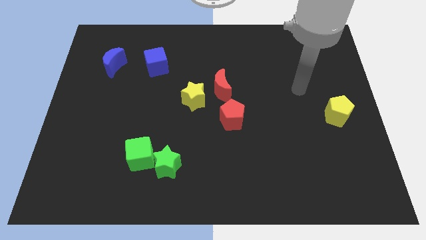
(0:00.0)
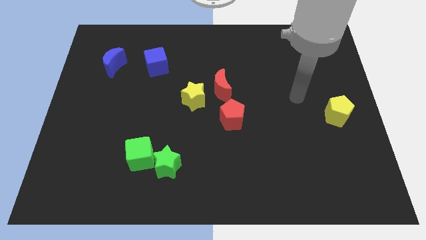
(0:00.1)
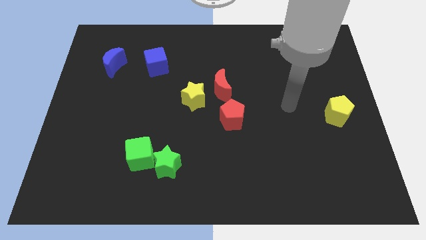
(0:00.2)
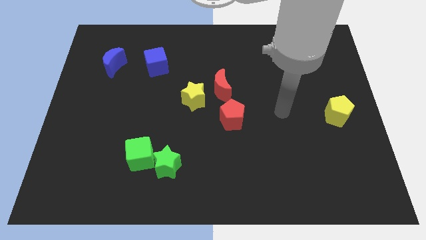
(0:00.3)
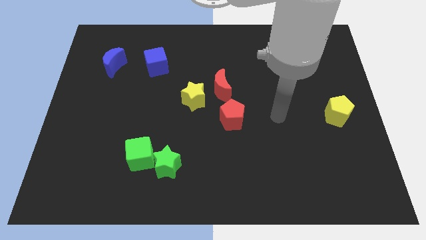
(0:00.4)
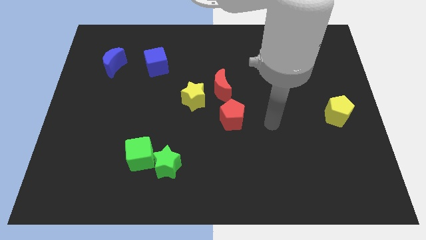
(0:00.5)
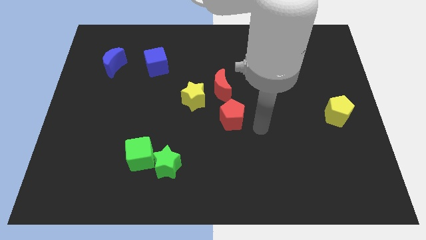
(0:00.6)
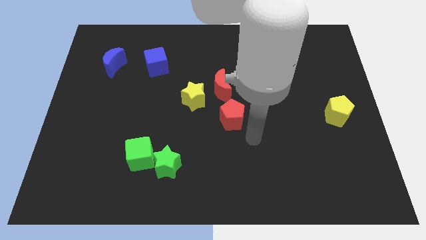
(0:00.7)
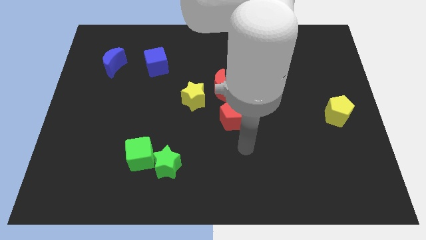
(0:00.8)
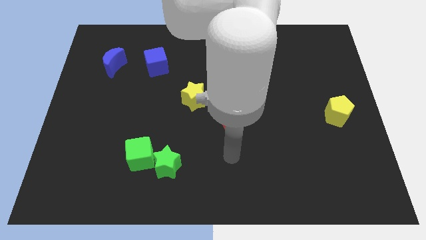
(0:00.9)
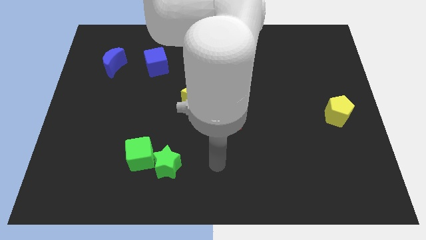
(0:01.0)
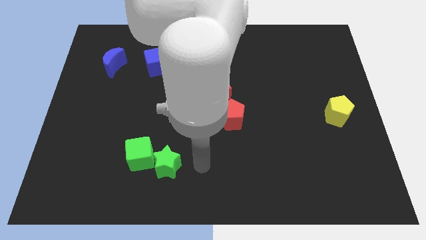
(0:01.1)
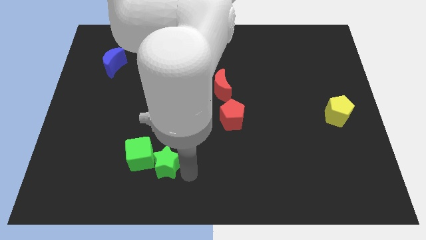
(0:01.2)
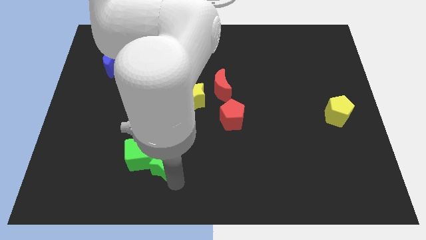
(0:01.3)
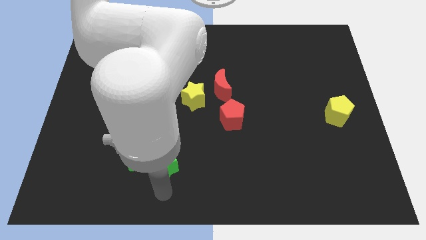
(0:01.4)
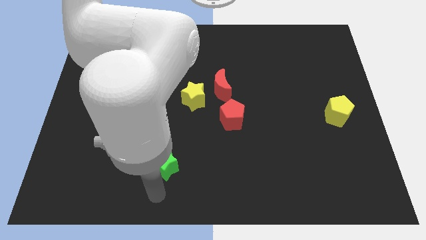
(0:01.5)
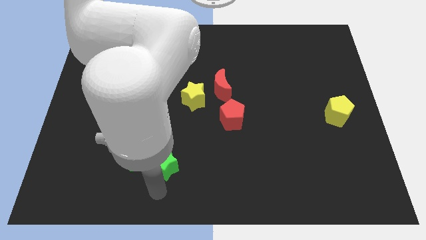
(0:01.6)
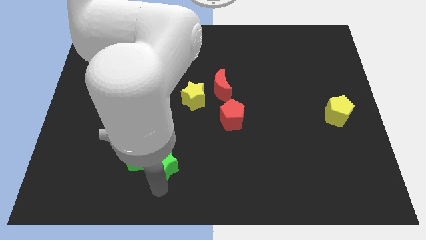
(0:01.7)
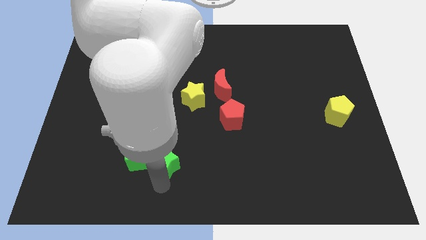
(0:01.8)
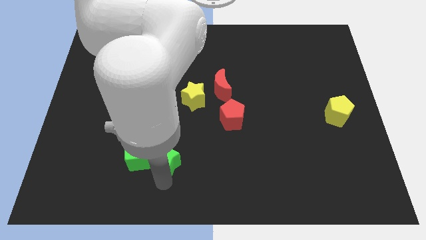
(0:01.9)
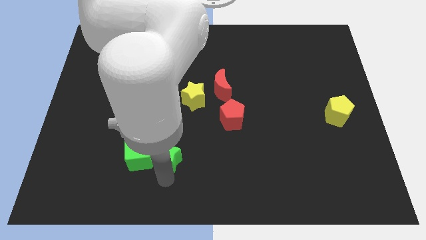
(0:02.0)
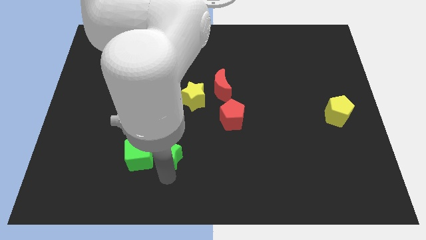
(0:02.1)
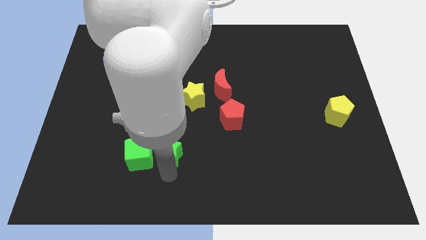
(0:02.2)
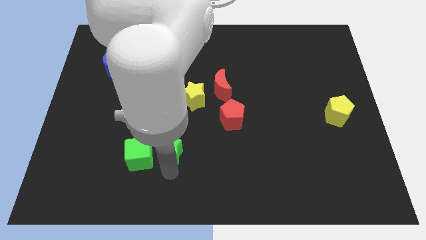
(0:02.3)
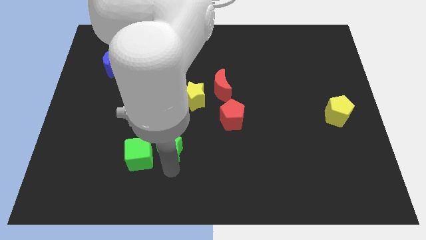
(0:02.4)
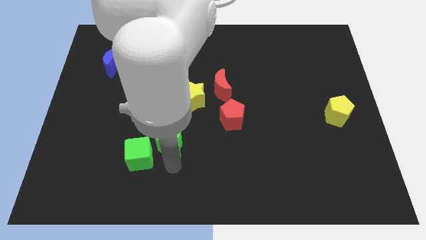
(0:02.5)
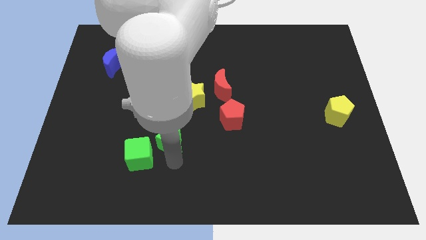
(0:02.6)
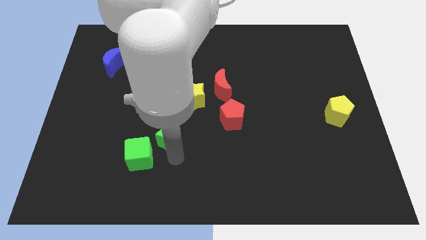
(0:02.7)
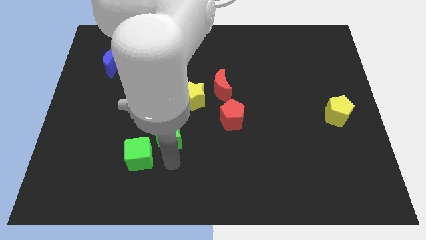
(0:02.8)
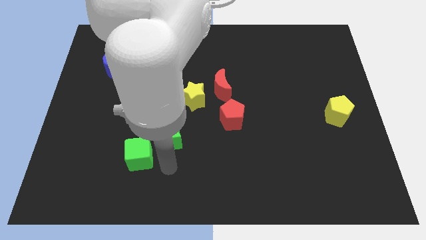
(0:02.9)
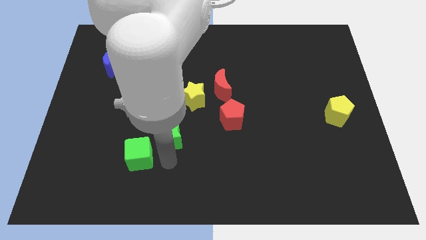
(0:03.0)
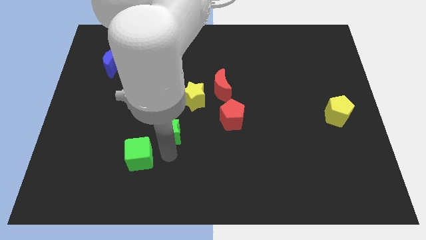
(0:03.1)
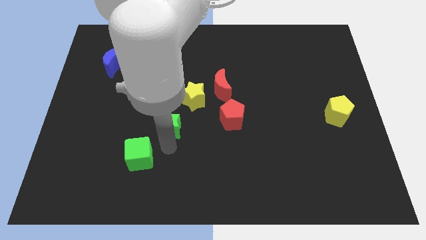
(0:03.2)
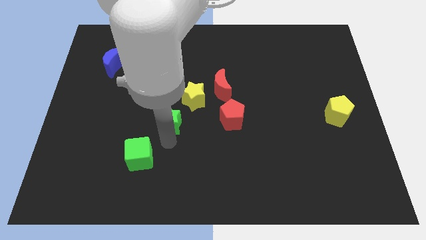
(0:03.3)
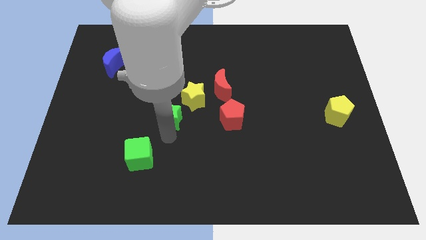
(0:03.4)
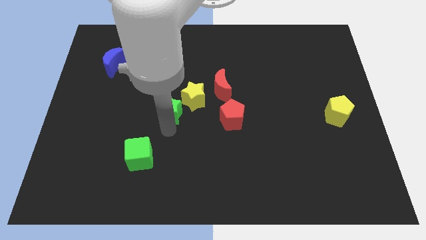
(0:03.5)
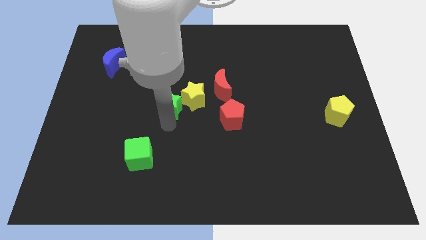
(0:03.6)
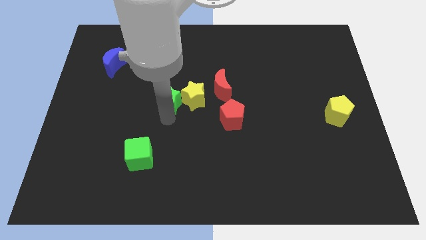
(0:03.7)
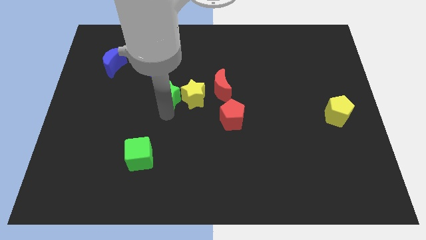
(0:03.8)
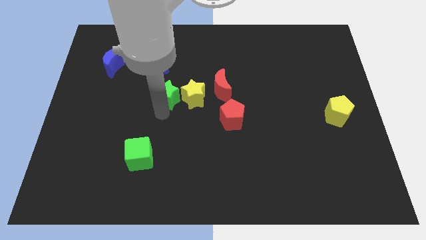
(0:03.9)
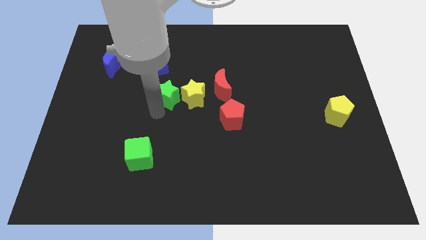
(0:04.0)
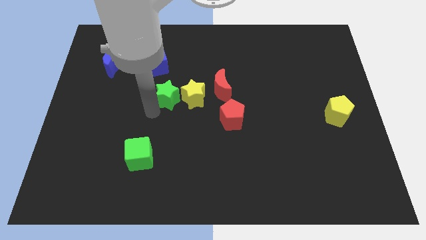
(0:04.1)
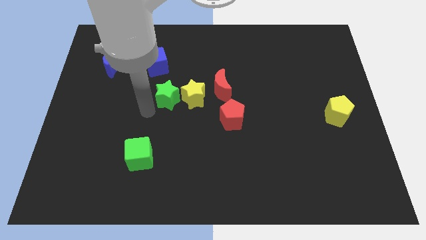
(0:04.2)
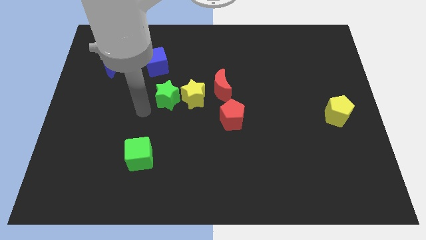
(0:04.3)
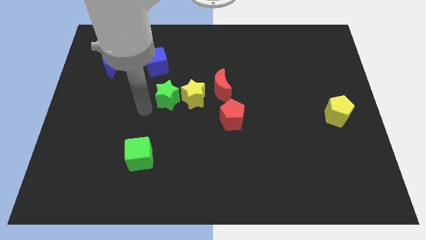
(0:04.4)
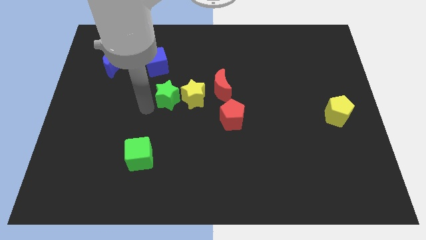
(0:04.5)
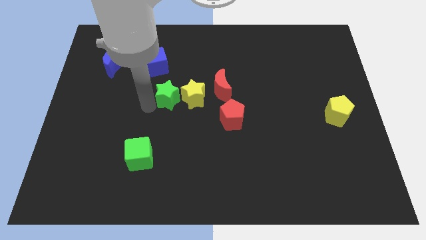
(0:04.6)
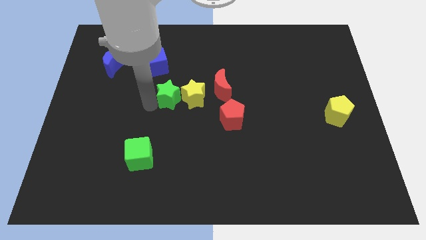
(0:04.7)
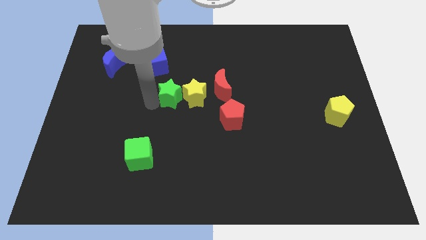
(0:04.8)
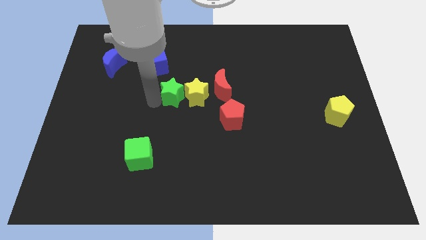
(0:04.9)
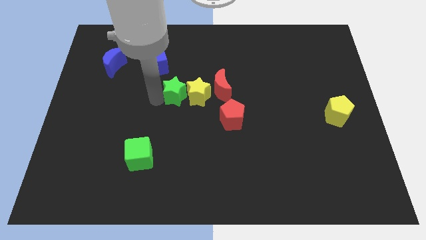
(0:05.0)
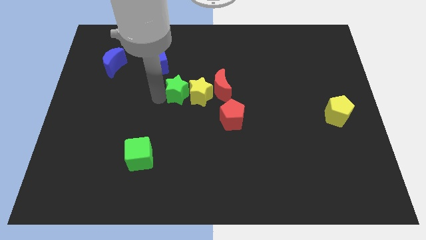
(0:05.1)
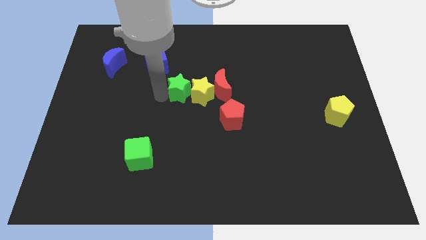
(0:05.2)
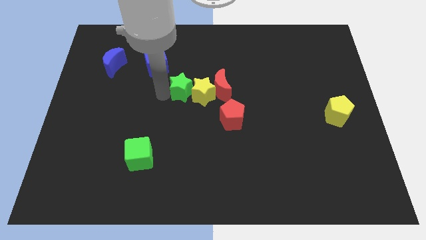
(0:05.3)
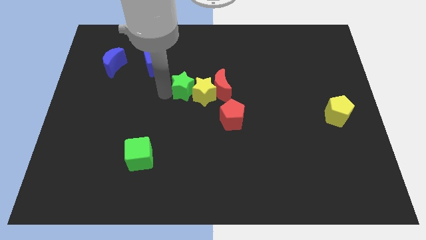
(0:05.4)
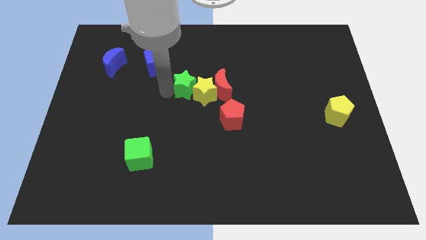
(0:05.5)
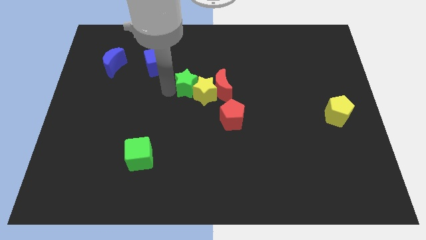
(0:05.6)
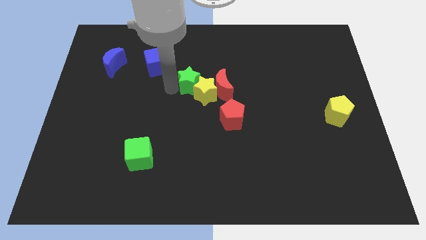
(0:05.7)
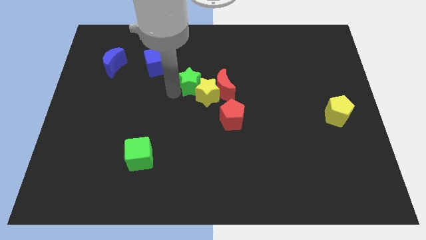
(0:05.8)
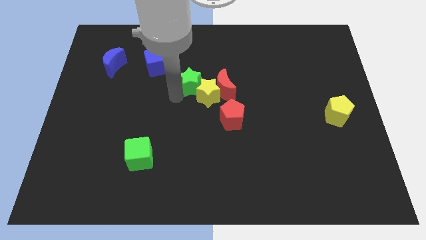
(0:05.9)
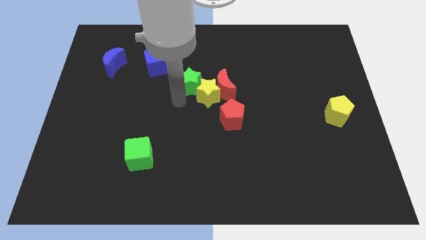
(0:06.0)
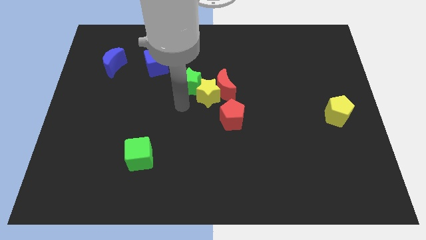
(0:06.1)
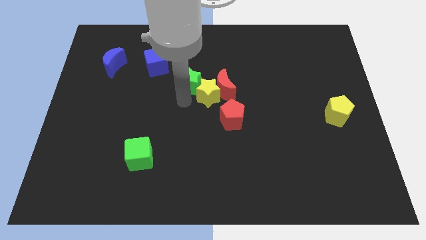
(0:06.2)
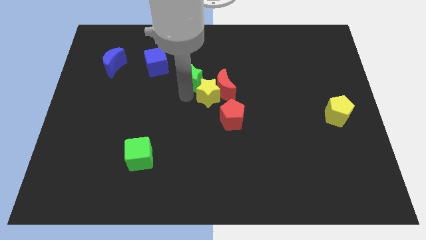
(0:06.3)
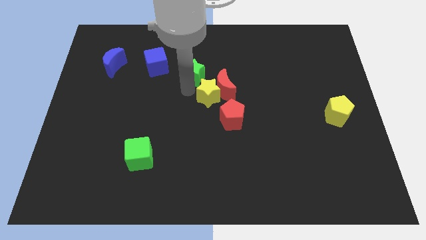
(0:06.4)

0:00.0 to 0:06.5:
slide the green star to the right of the blue cube

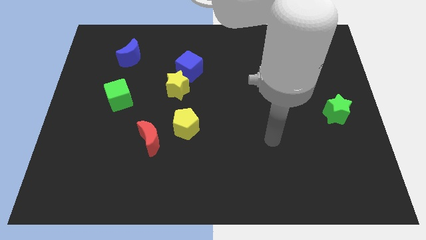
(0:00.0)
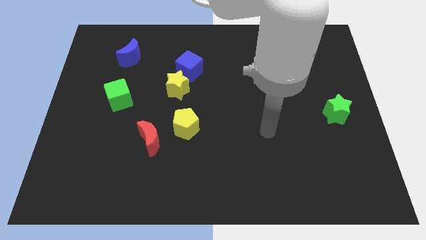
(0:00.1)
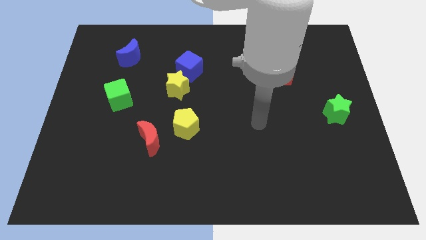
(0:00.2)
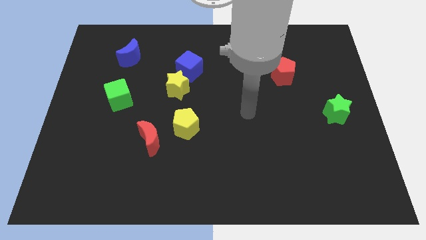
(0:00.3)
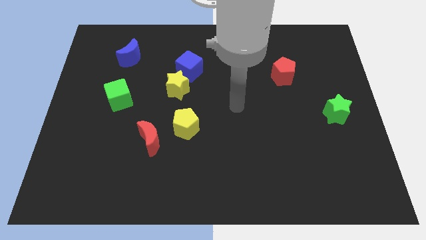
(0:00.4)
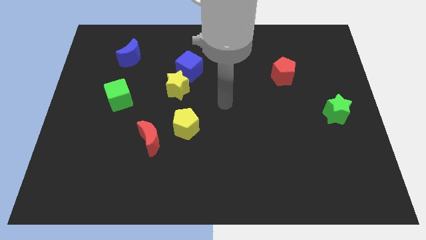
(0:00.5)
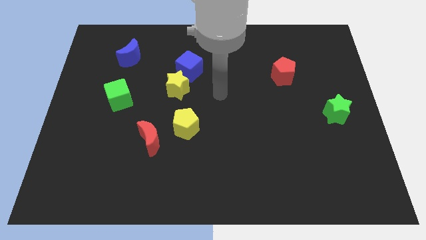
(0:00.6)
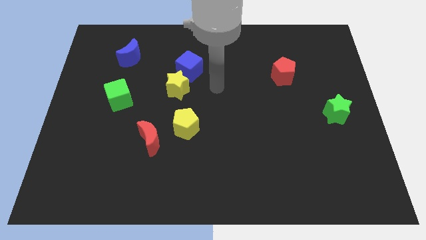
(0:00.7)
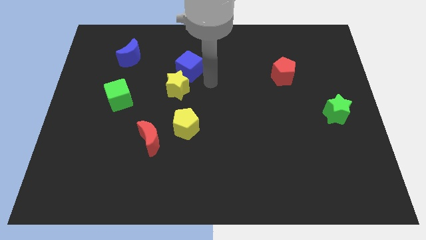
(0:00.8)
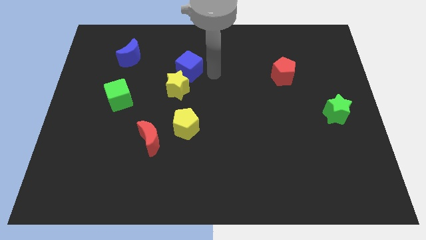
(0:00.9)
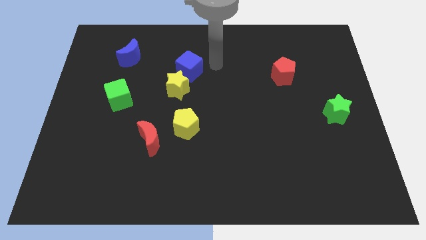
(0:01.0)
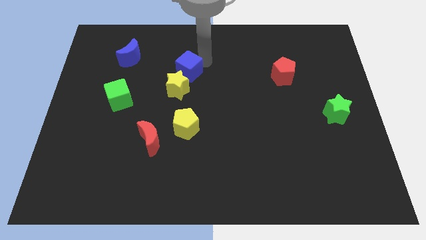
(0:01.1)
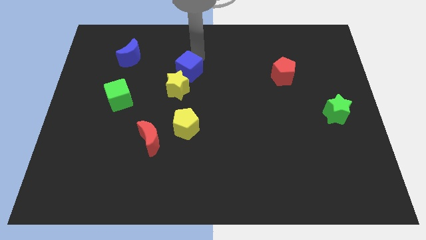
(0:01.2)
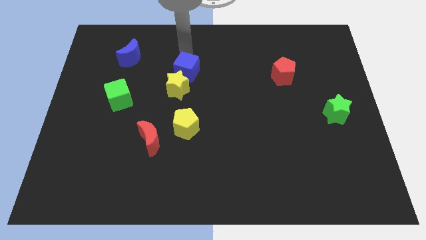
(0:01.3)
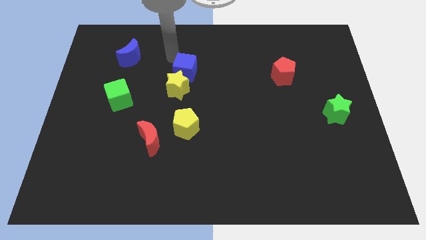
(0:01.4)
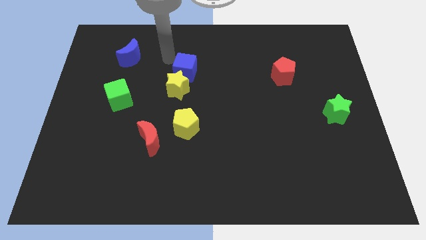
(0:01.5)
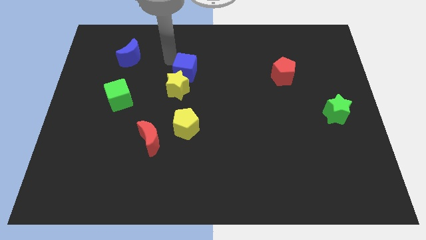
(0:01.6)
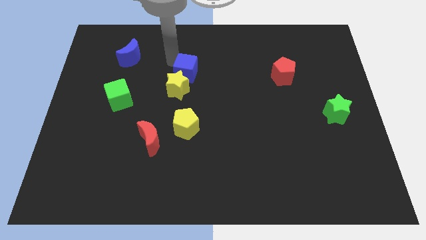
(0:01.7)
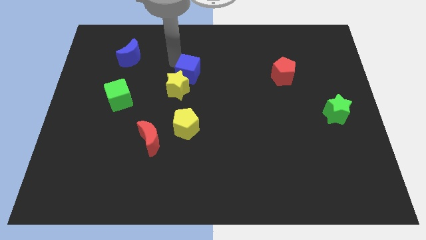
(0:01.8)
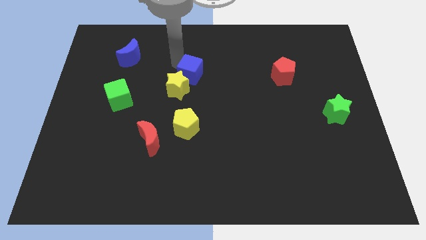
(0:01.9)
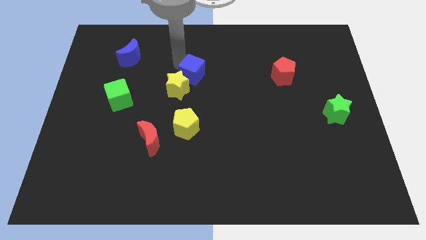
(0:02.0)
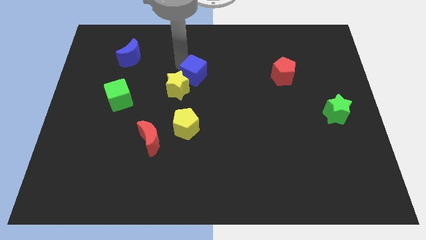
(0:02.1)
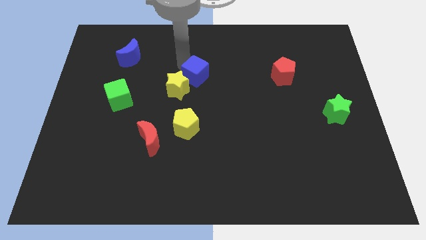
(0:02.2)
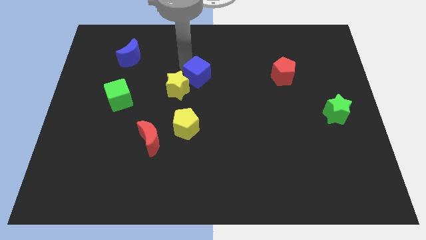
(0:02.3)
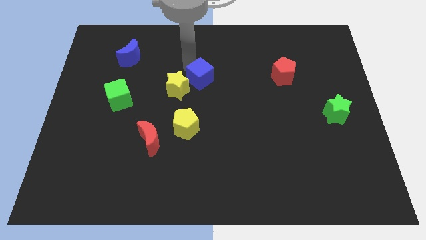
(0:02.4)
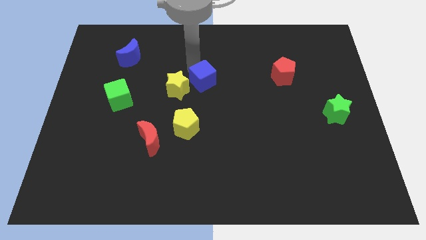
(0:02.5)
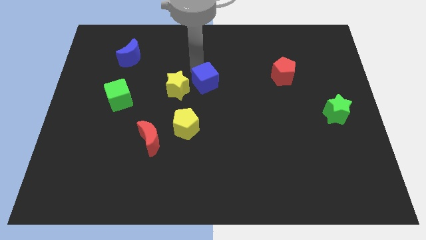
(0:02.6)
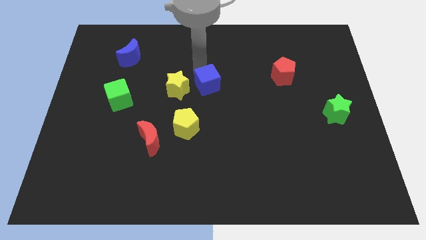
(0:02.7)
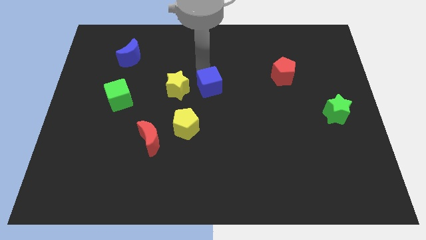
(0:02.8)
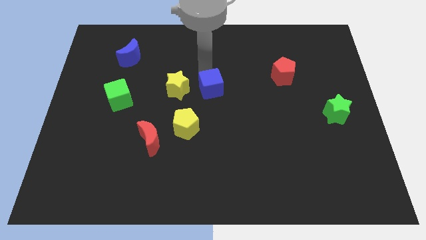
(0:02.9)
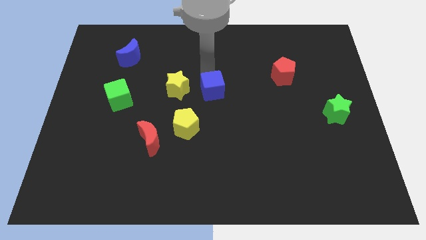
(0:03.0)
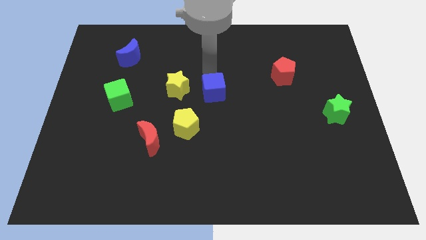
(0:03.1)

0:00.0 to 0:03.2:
move the blue cube to the top right of the yellow pentagon
